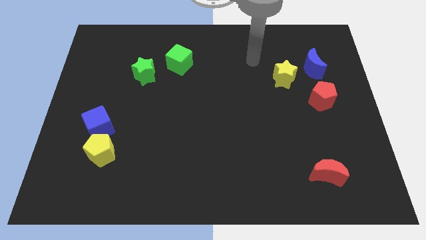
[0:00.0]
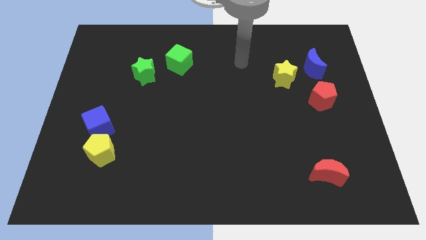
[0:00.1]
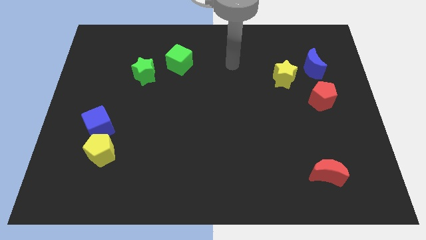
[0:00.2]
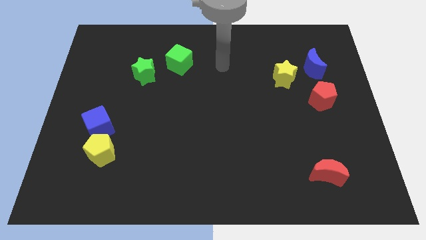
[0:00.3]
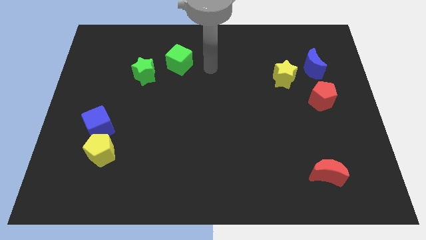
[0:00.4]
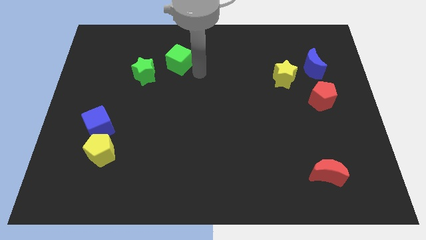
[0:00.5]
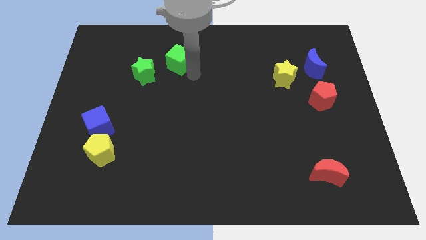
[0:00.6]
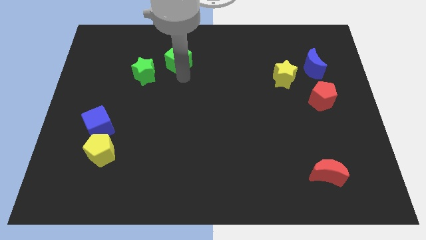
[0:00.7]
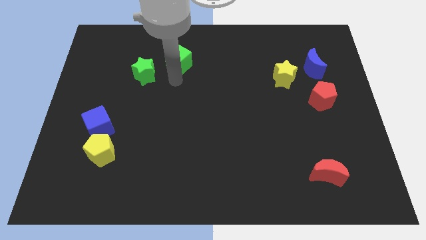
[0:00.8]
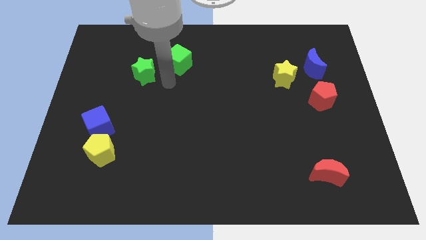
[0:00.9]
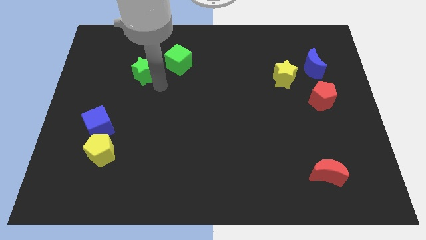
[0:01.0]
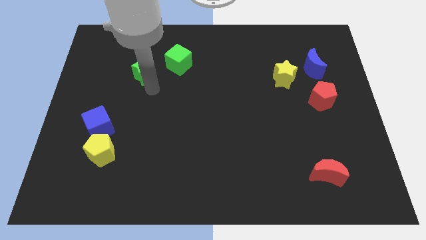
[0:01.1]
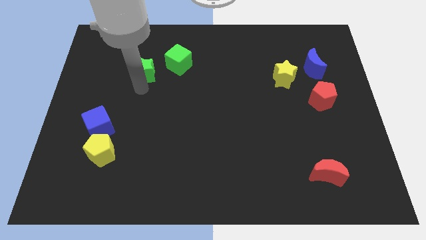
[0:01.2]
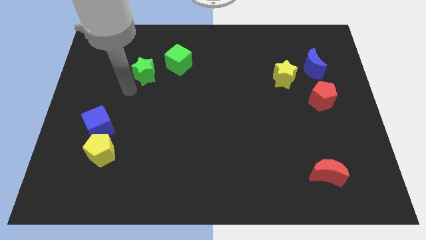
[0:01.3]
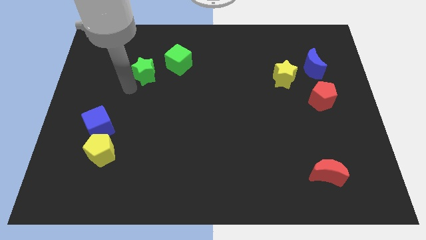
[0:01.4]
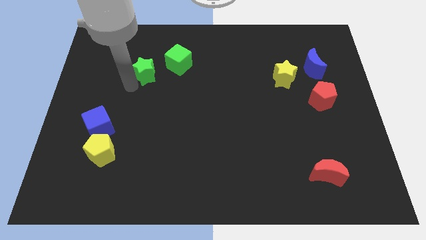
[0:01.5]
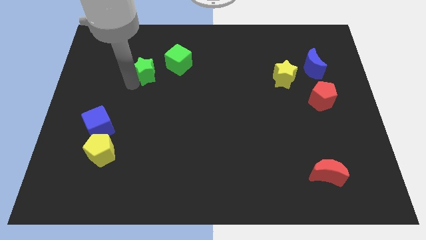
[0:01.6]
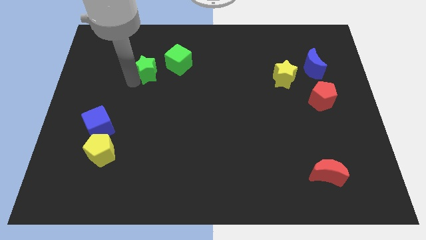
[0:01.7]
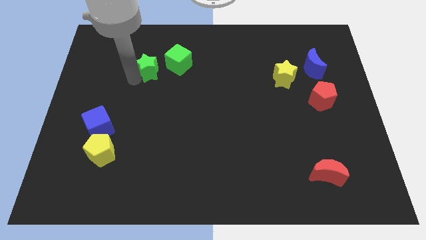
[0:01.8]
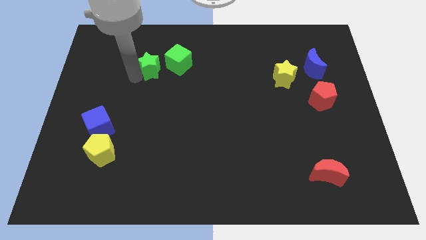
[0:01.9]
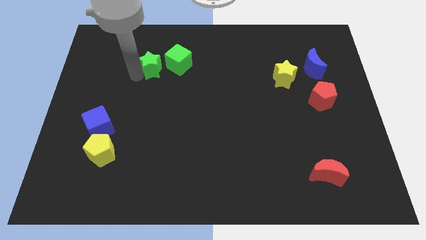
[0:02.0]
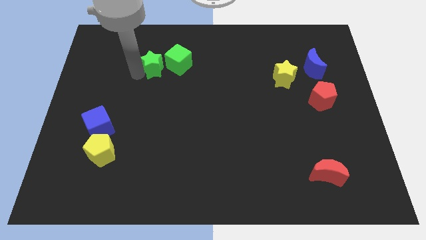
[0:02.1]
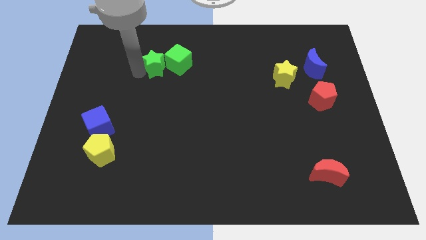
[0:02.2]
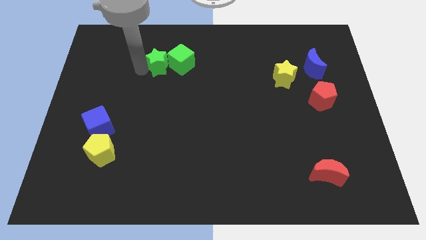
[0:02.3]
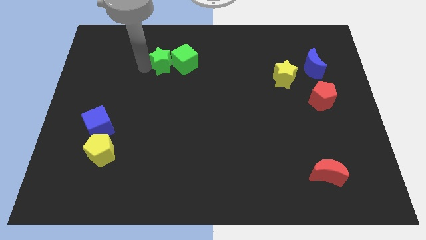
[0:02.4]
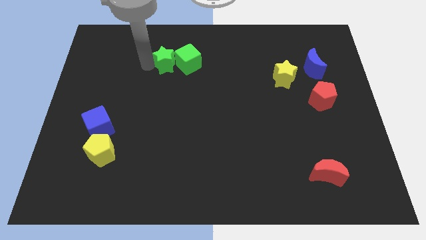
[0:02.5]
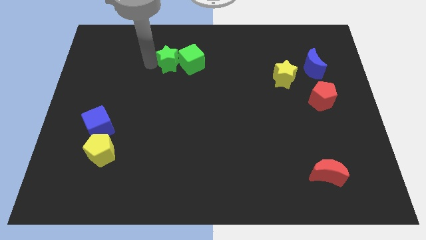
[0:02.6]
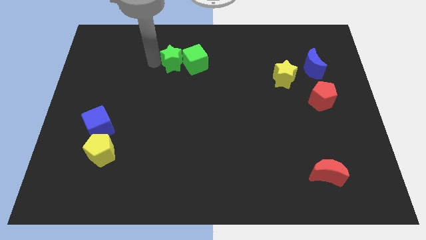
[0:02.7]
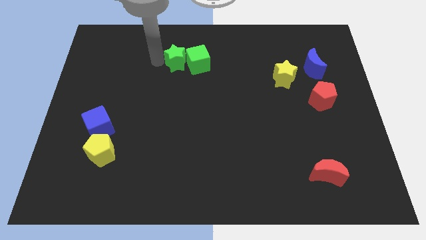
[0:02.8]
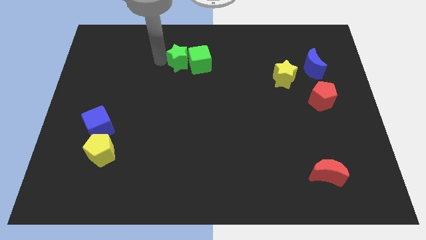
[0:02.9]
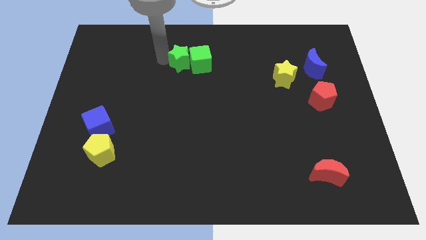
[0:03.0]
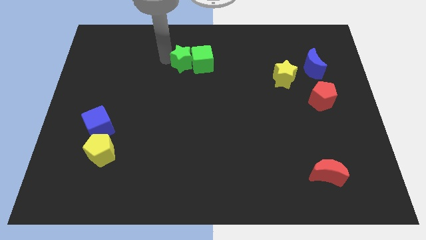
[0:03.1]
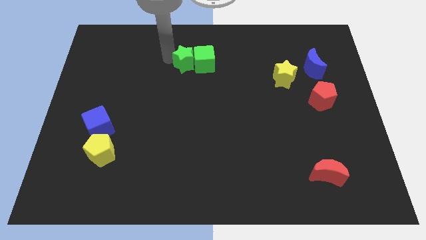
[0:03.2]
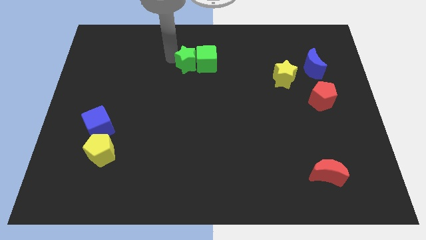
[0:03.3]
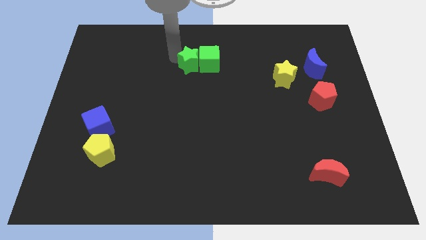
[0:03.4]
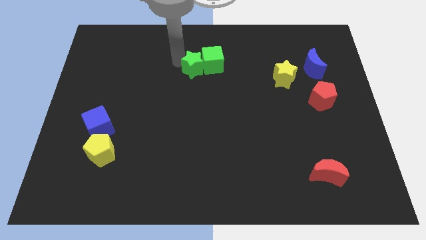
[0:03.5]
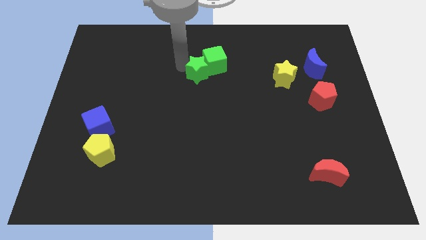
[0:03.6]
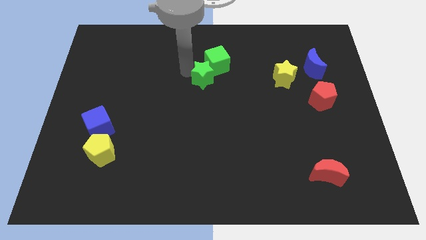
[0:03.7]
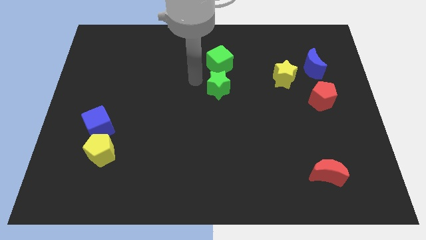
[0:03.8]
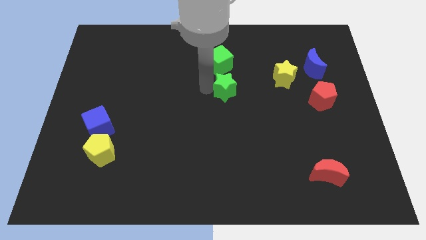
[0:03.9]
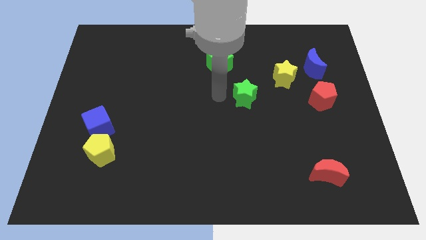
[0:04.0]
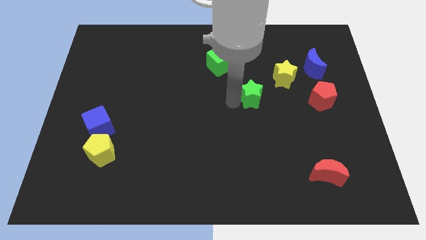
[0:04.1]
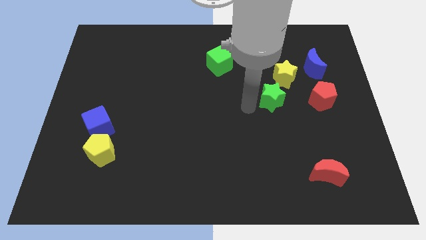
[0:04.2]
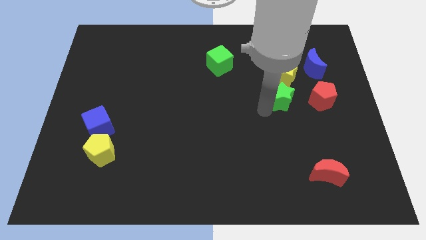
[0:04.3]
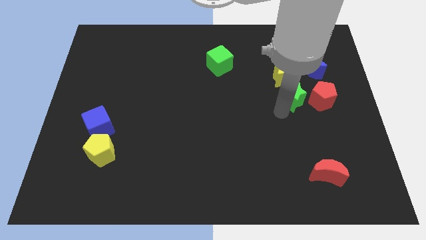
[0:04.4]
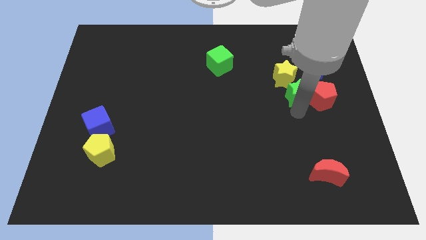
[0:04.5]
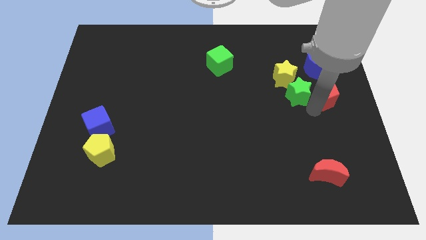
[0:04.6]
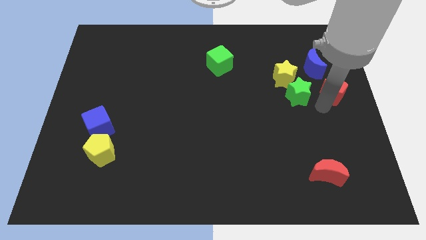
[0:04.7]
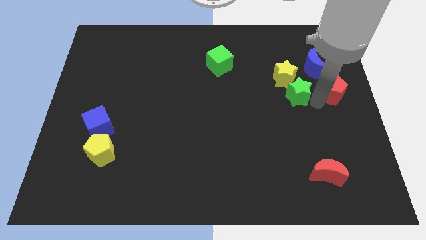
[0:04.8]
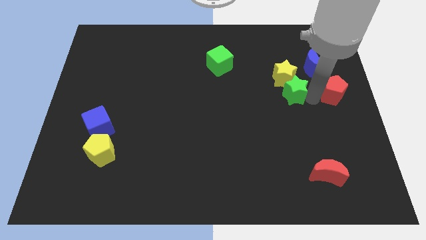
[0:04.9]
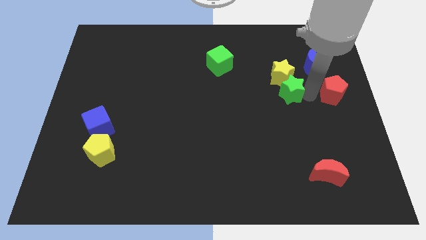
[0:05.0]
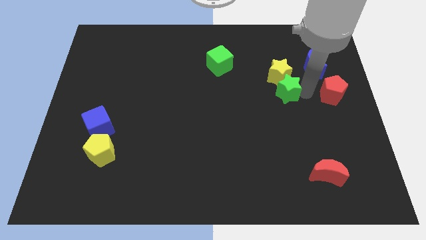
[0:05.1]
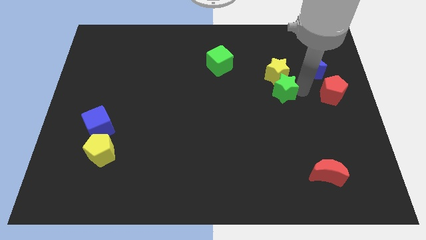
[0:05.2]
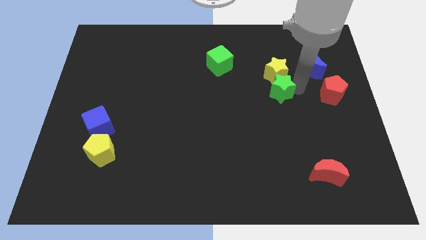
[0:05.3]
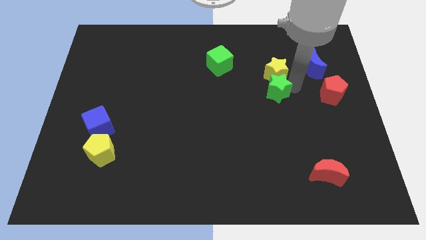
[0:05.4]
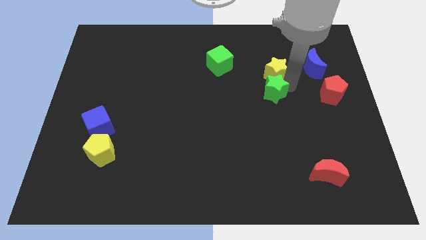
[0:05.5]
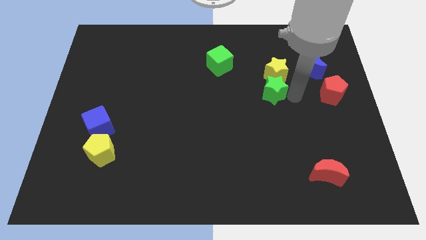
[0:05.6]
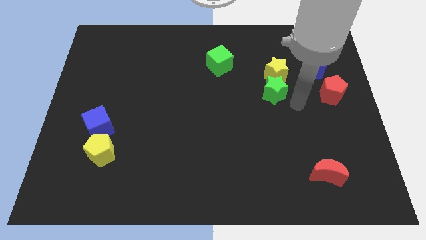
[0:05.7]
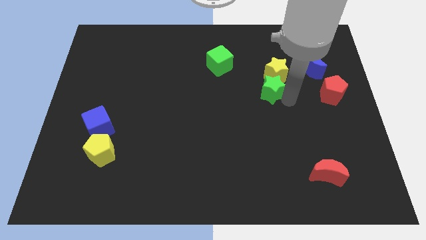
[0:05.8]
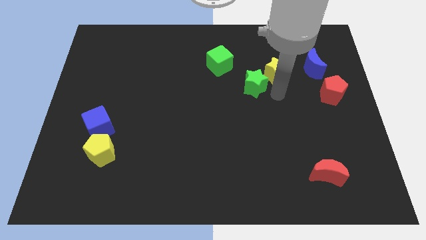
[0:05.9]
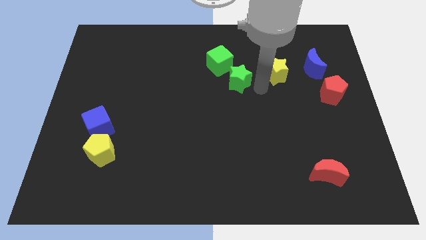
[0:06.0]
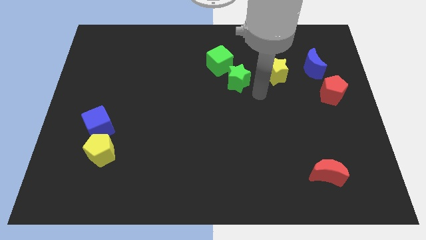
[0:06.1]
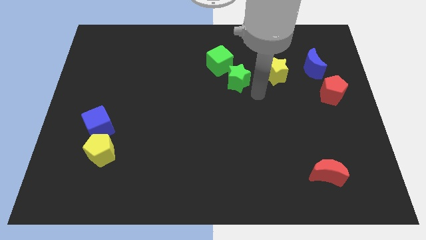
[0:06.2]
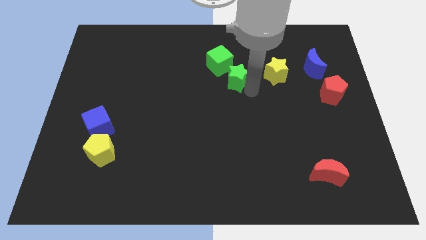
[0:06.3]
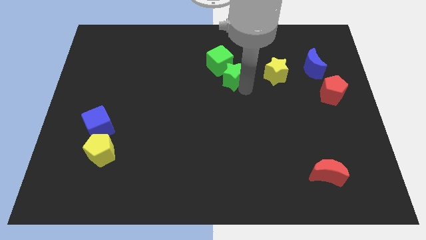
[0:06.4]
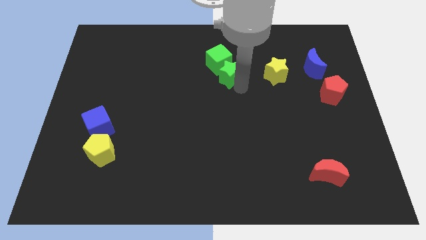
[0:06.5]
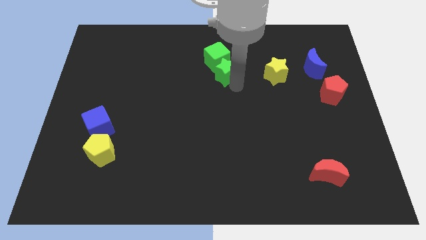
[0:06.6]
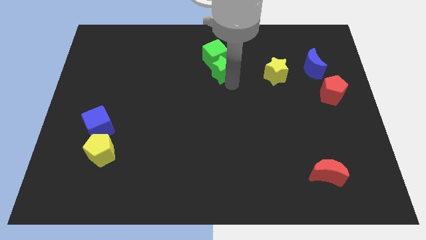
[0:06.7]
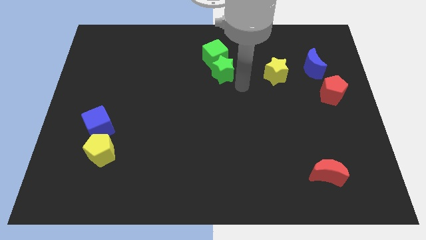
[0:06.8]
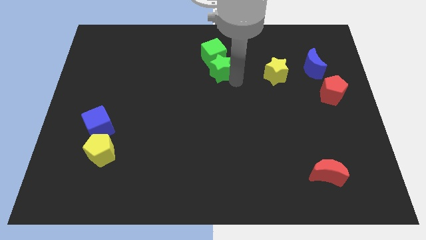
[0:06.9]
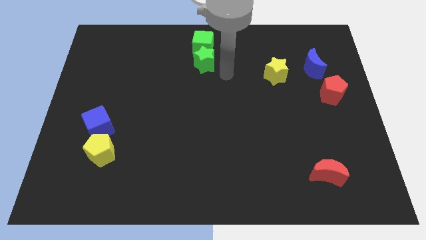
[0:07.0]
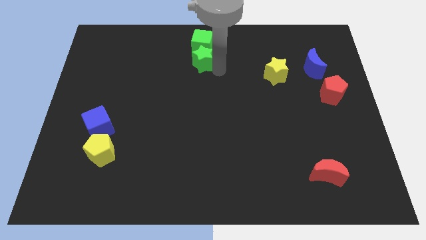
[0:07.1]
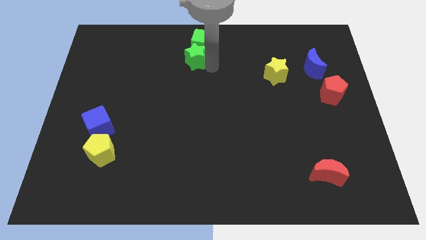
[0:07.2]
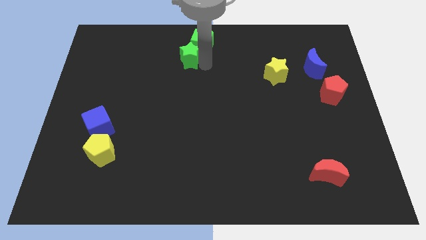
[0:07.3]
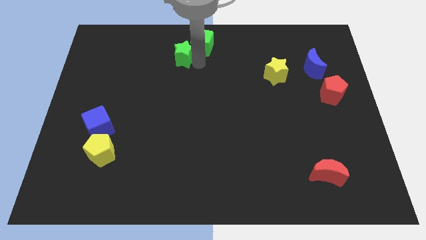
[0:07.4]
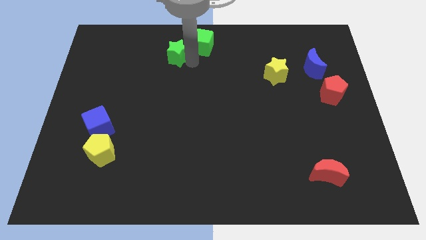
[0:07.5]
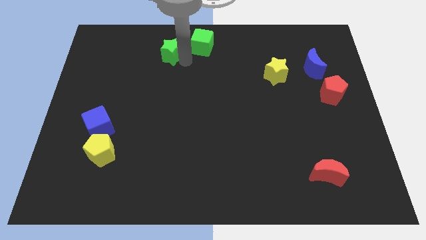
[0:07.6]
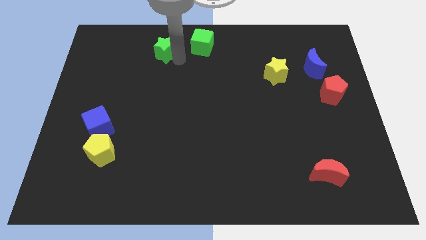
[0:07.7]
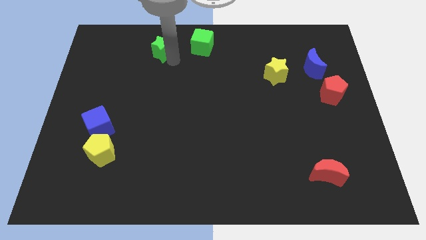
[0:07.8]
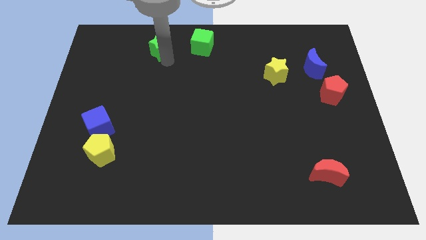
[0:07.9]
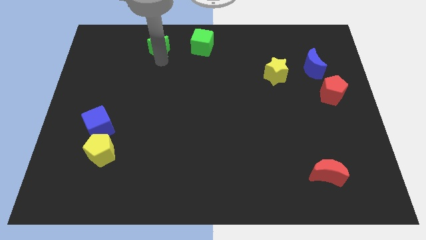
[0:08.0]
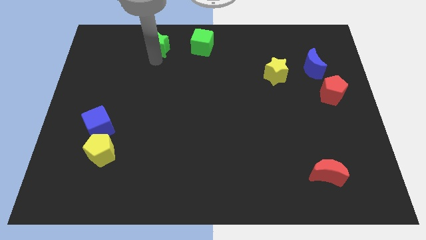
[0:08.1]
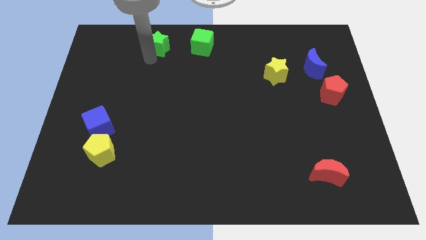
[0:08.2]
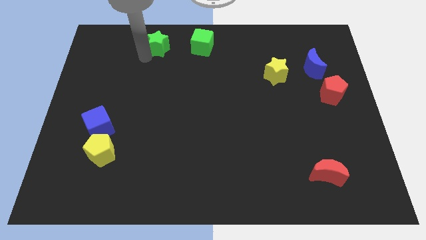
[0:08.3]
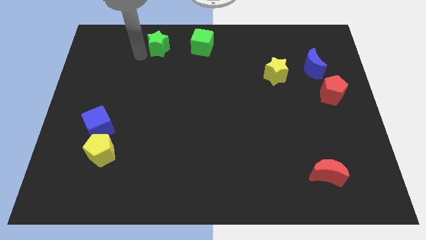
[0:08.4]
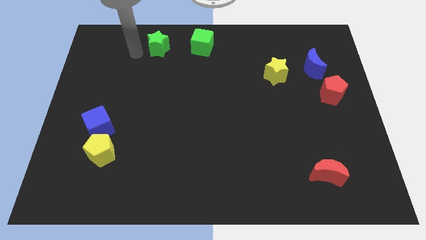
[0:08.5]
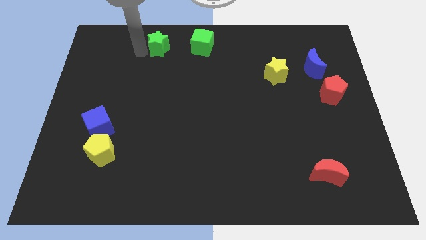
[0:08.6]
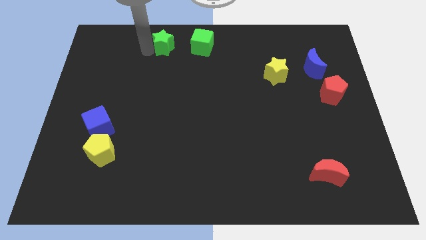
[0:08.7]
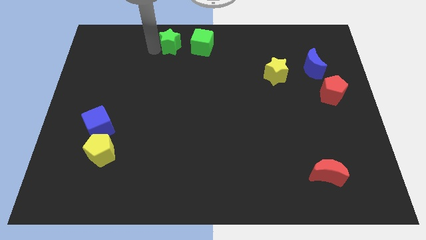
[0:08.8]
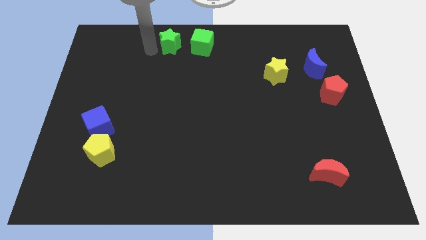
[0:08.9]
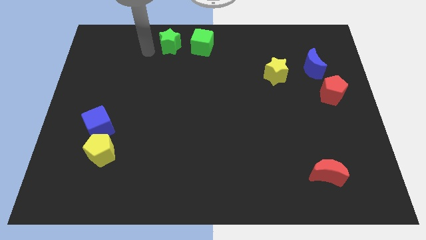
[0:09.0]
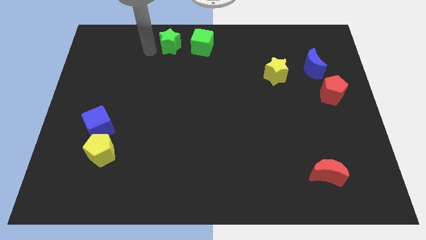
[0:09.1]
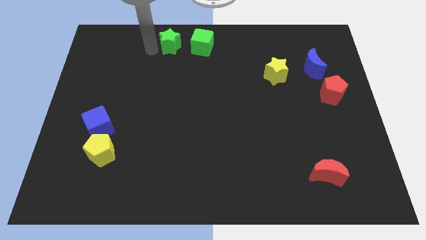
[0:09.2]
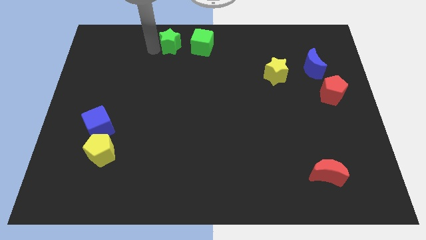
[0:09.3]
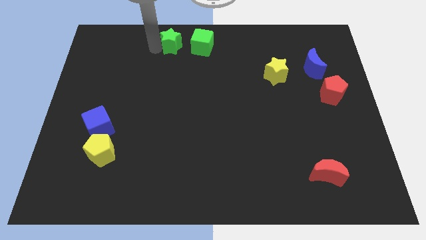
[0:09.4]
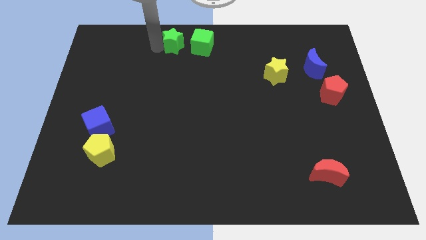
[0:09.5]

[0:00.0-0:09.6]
put the green star to the towards your base
